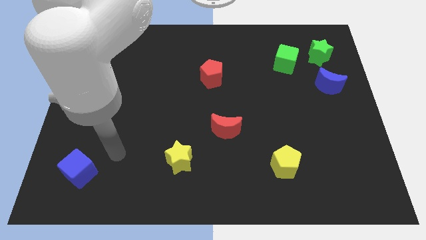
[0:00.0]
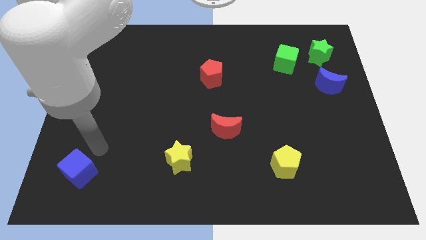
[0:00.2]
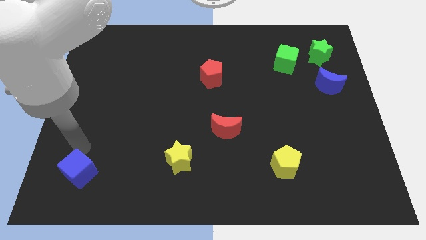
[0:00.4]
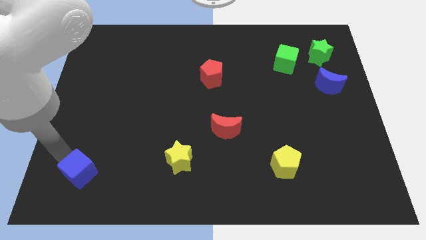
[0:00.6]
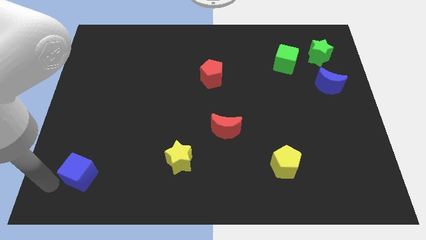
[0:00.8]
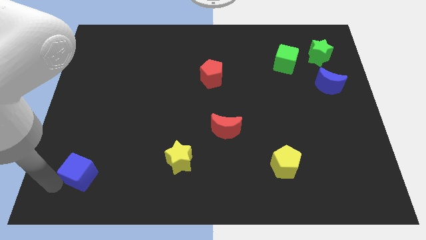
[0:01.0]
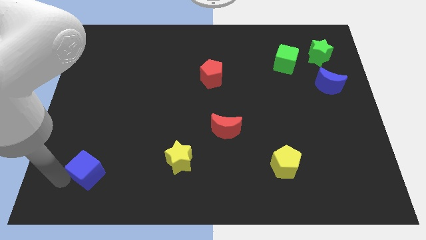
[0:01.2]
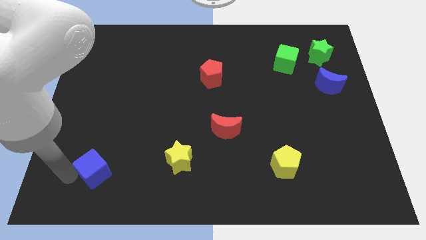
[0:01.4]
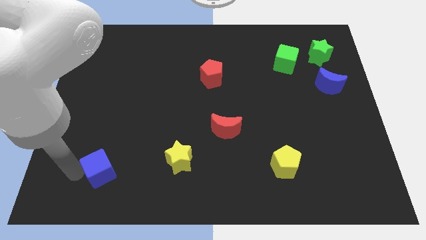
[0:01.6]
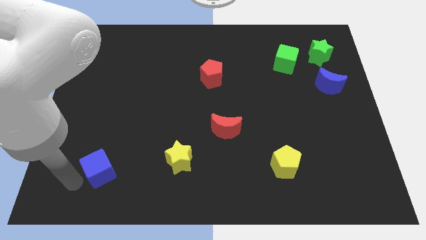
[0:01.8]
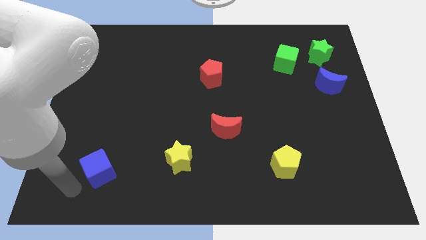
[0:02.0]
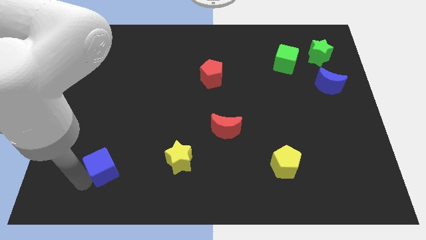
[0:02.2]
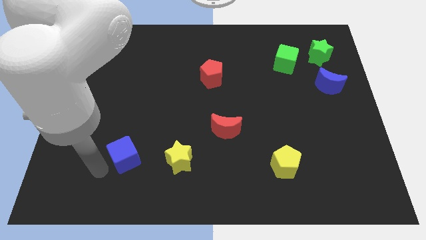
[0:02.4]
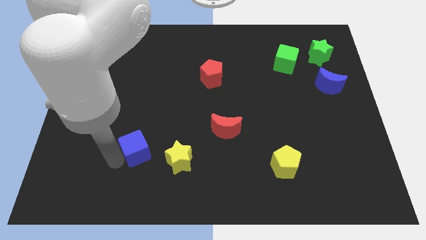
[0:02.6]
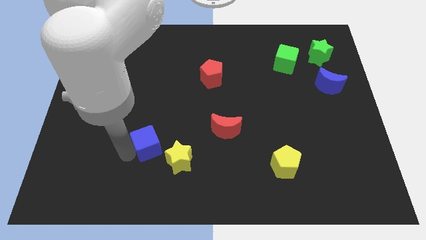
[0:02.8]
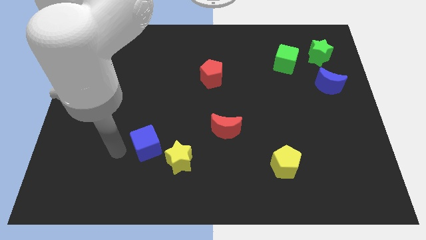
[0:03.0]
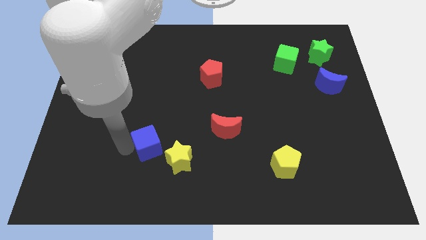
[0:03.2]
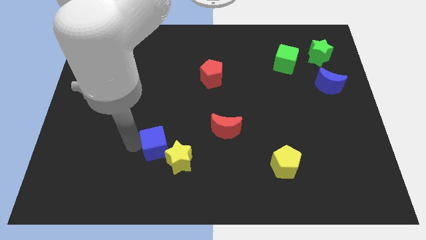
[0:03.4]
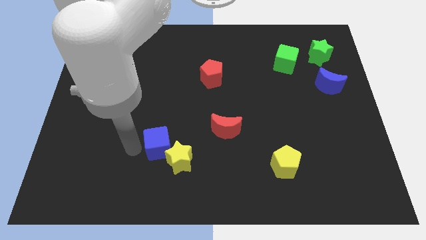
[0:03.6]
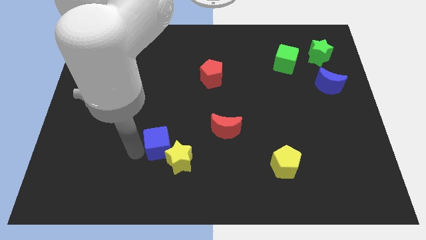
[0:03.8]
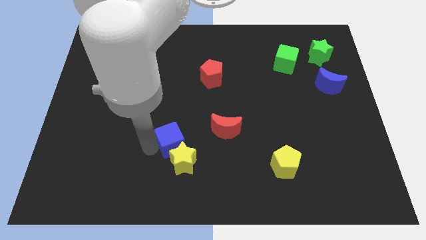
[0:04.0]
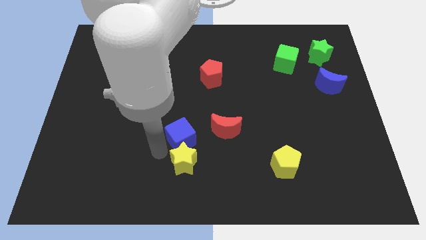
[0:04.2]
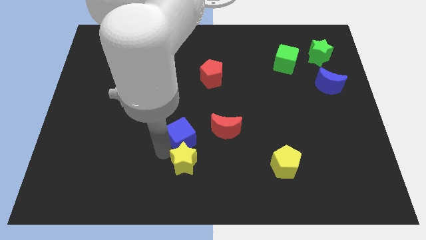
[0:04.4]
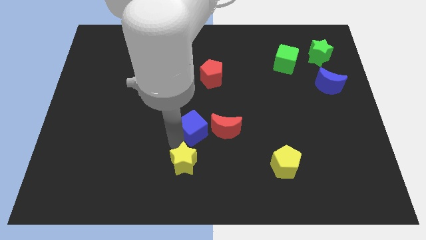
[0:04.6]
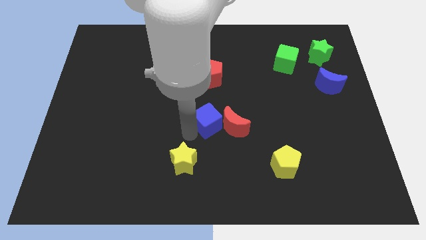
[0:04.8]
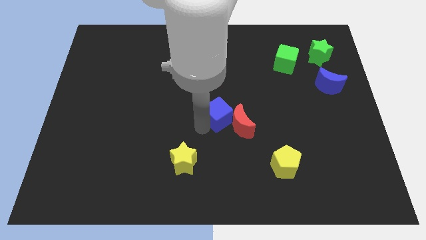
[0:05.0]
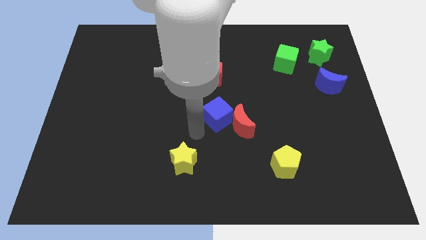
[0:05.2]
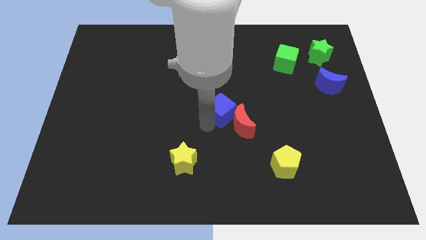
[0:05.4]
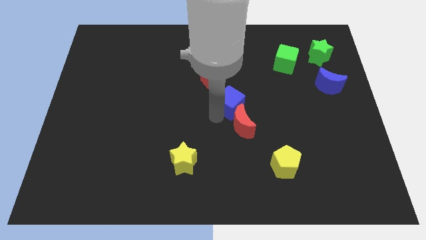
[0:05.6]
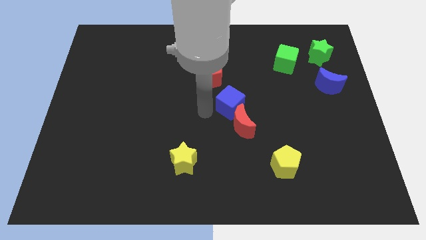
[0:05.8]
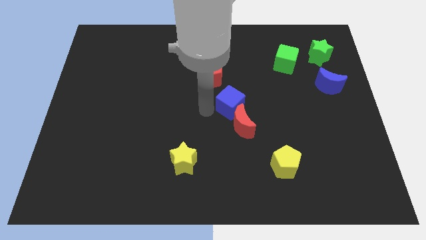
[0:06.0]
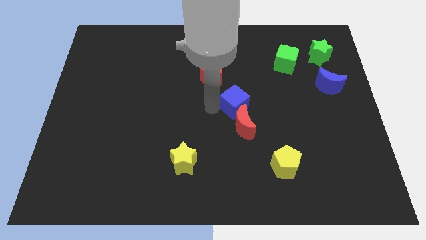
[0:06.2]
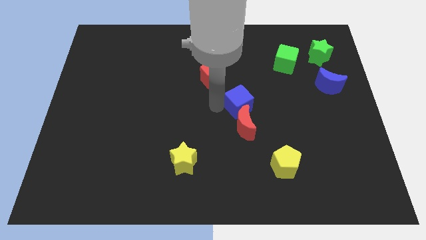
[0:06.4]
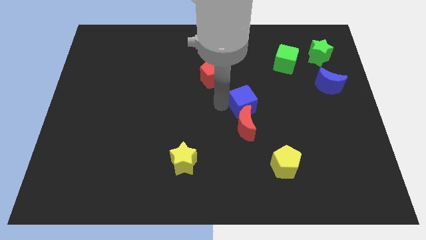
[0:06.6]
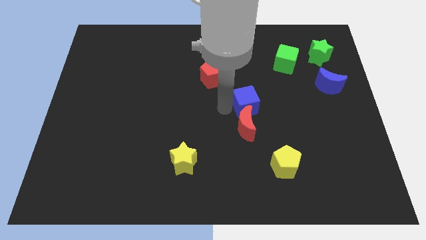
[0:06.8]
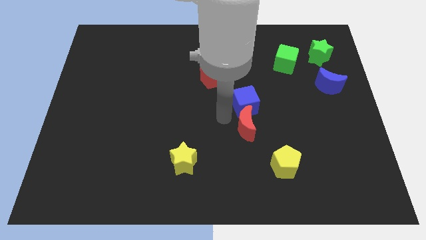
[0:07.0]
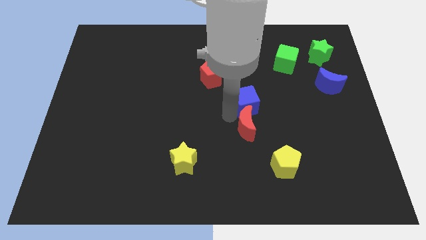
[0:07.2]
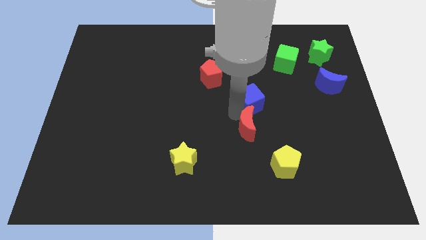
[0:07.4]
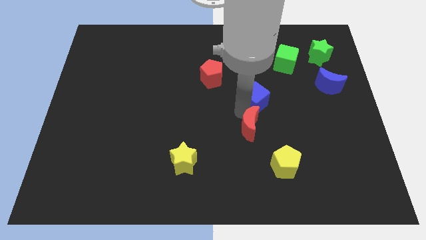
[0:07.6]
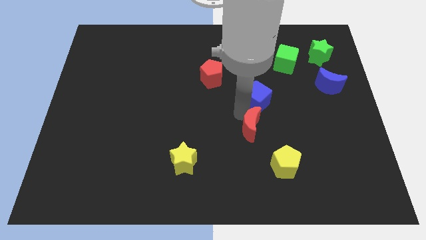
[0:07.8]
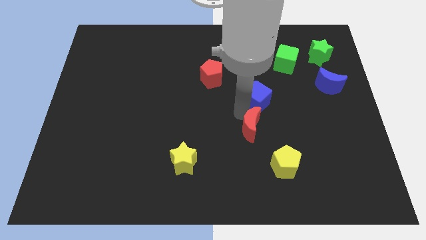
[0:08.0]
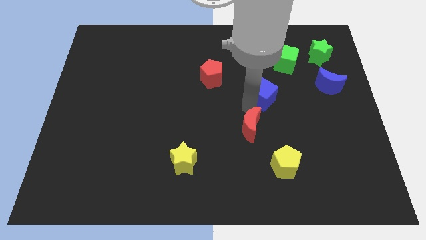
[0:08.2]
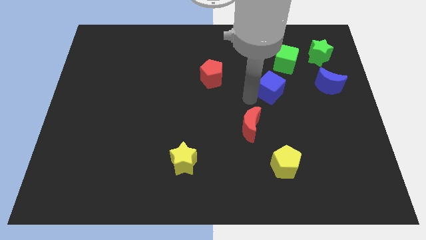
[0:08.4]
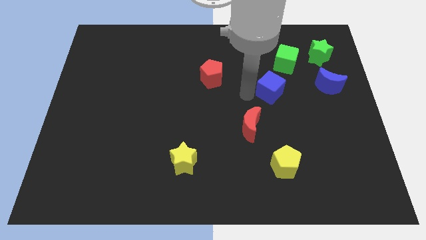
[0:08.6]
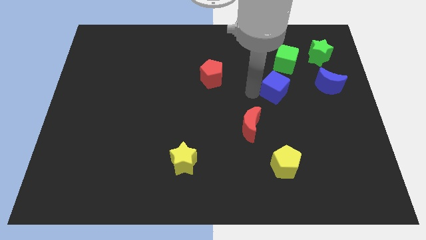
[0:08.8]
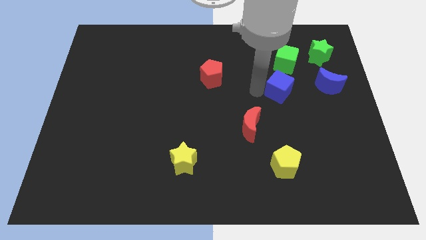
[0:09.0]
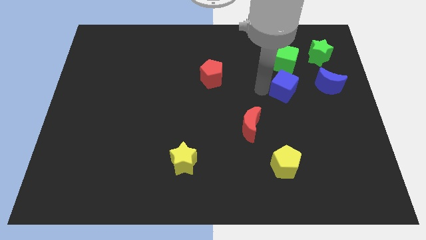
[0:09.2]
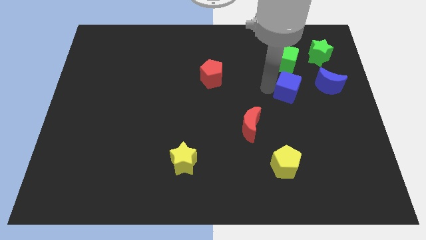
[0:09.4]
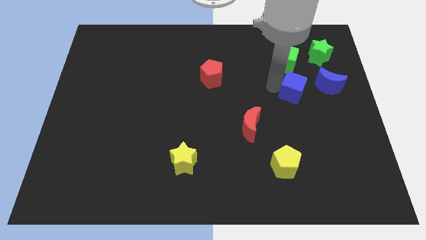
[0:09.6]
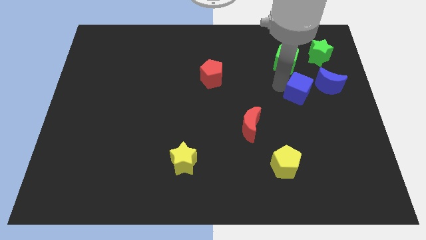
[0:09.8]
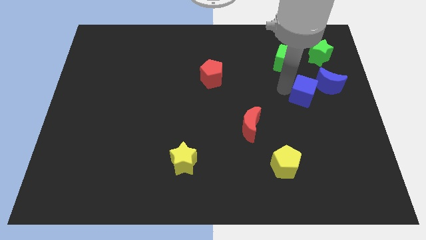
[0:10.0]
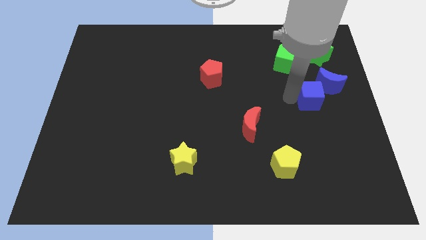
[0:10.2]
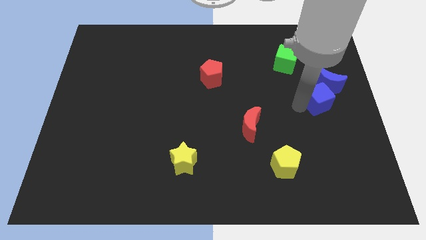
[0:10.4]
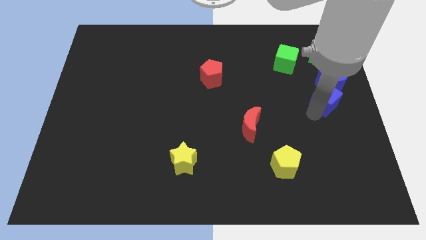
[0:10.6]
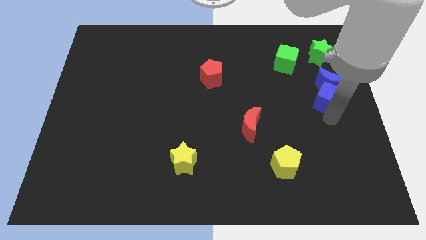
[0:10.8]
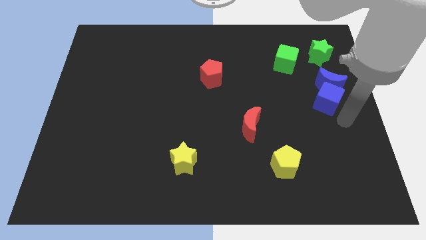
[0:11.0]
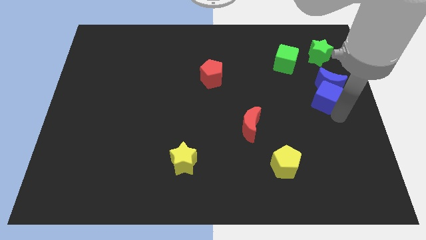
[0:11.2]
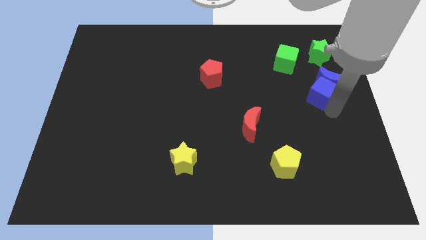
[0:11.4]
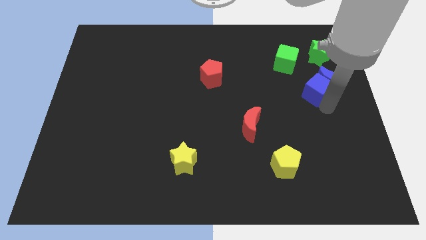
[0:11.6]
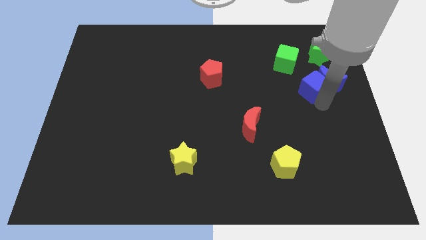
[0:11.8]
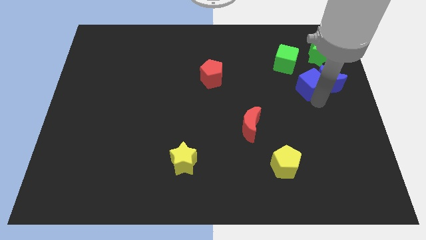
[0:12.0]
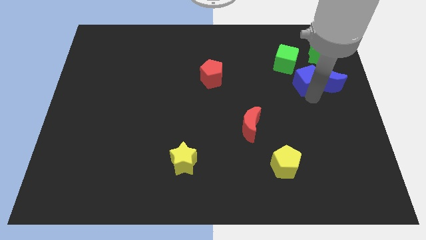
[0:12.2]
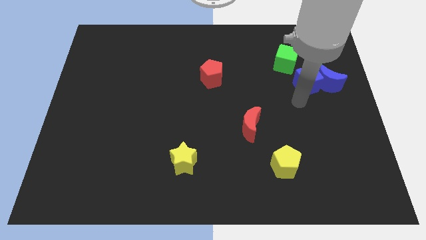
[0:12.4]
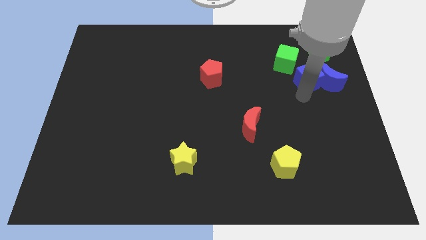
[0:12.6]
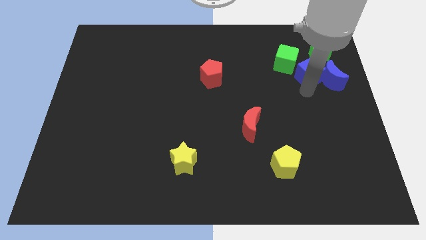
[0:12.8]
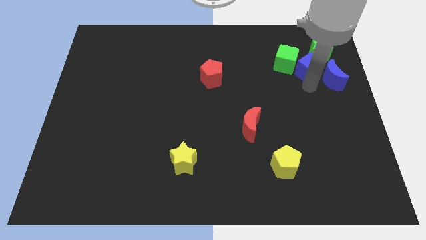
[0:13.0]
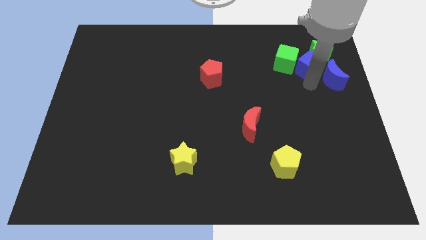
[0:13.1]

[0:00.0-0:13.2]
push the blue cube to the green star

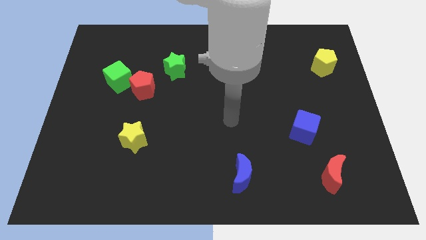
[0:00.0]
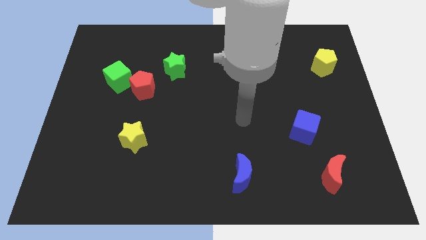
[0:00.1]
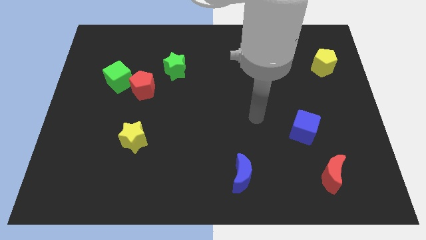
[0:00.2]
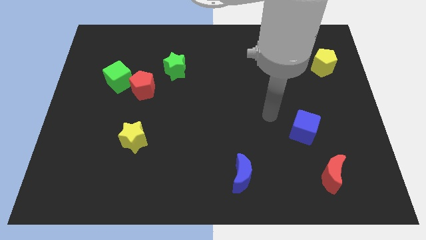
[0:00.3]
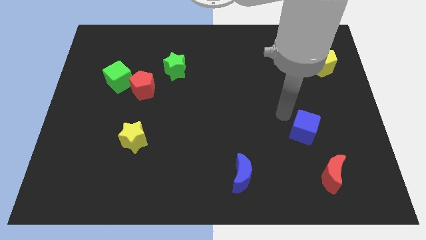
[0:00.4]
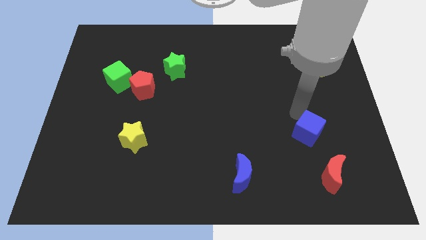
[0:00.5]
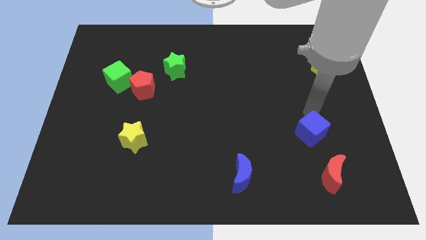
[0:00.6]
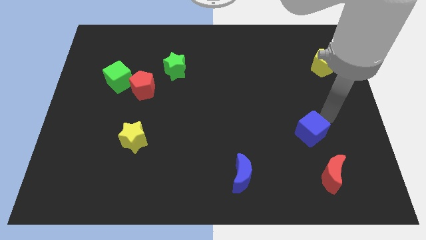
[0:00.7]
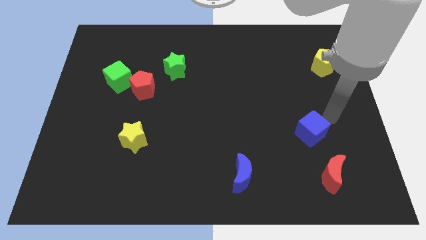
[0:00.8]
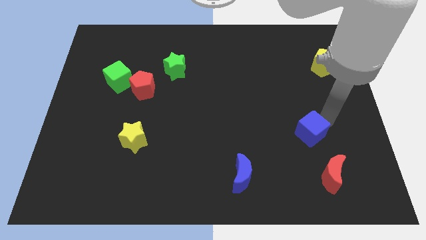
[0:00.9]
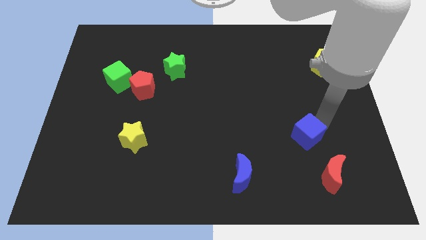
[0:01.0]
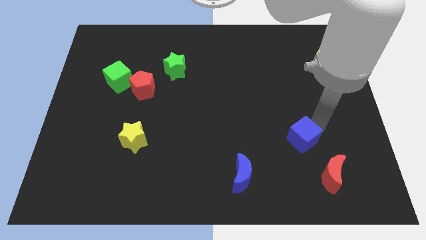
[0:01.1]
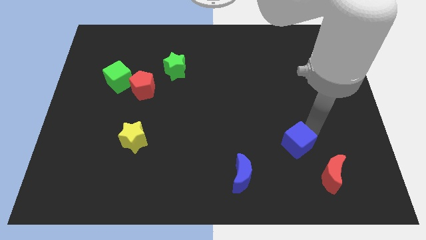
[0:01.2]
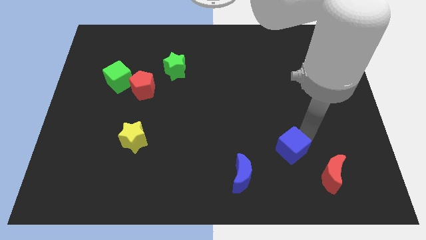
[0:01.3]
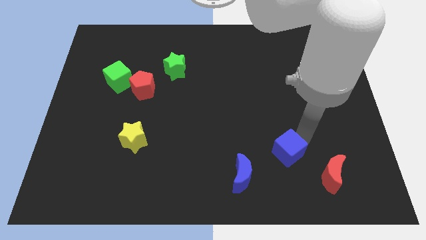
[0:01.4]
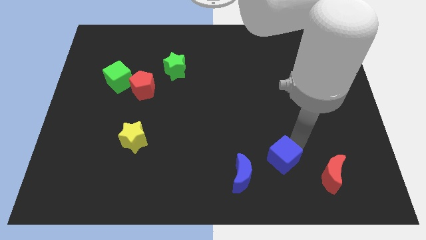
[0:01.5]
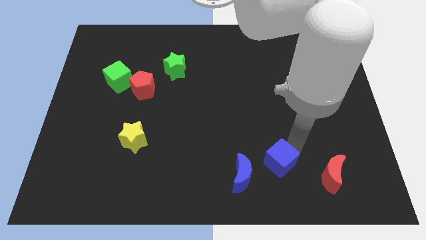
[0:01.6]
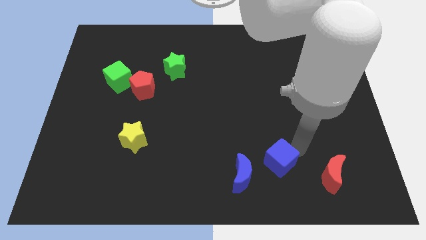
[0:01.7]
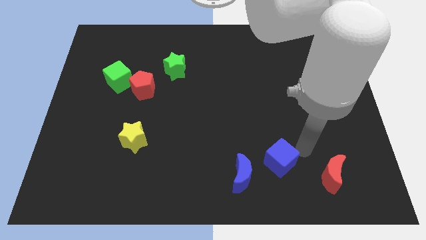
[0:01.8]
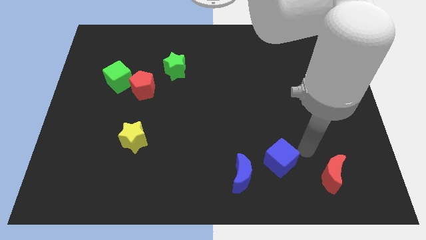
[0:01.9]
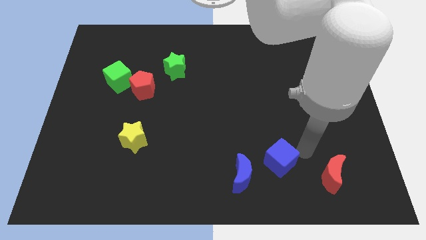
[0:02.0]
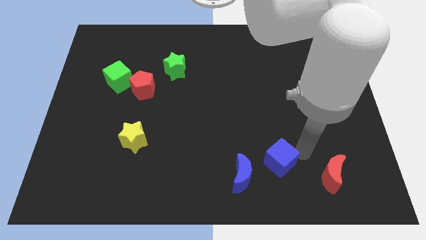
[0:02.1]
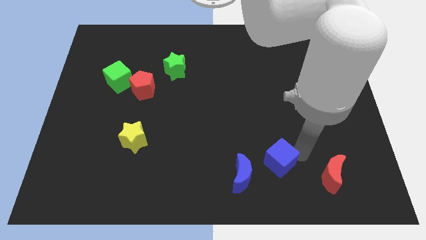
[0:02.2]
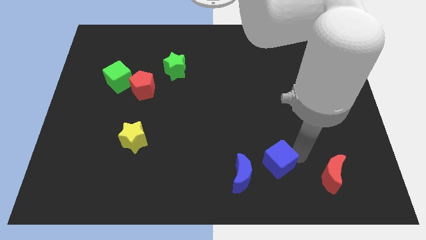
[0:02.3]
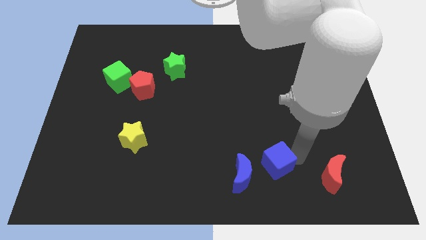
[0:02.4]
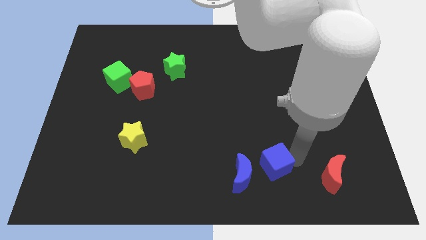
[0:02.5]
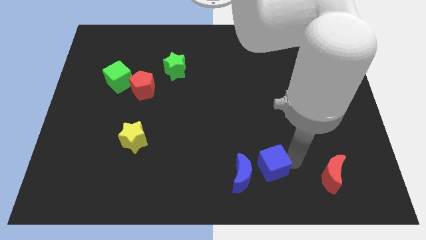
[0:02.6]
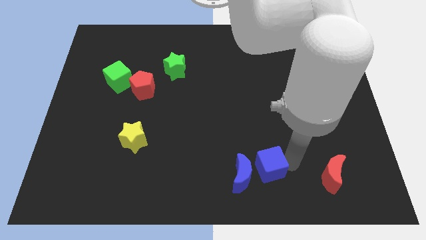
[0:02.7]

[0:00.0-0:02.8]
put the blue cube to the blue moon
